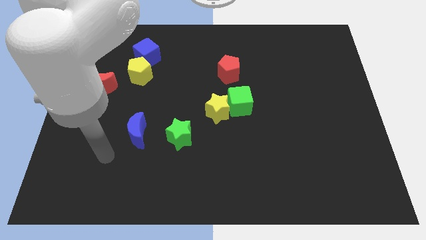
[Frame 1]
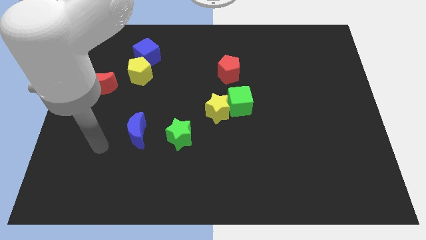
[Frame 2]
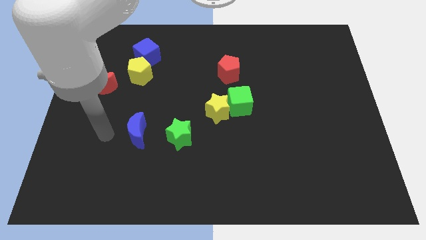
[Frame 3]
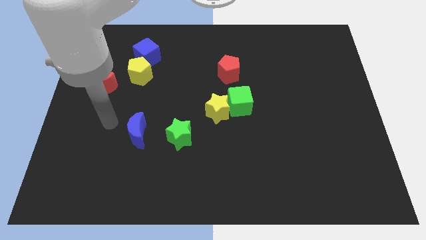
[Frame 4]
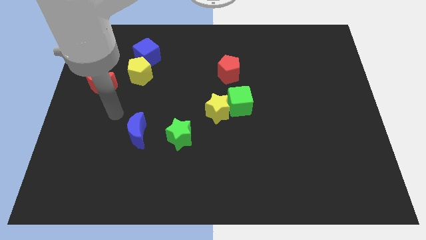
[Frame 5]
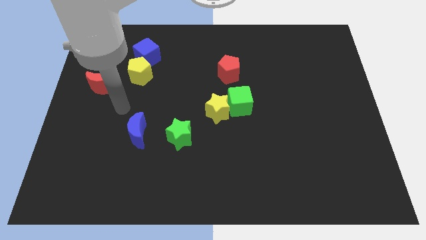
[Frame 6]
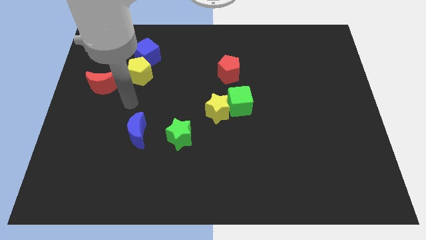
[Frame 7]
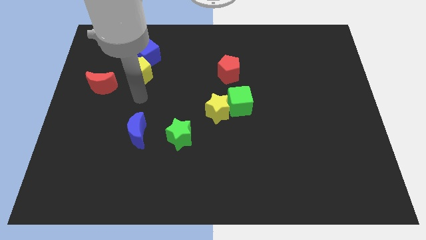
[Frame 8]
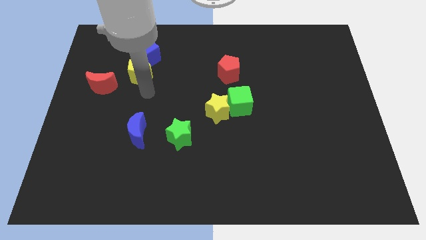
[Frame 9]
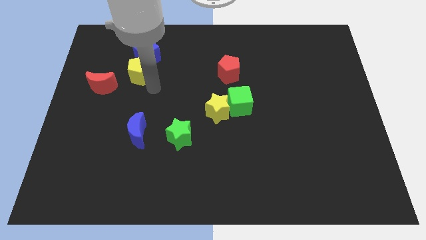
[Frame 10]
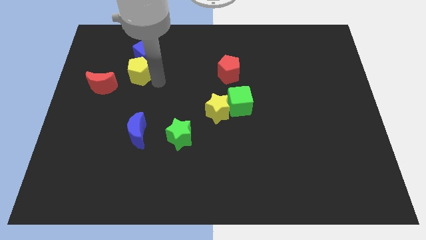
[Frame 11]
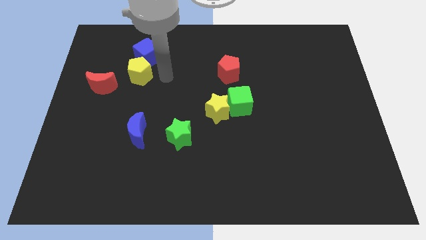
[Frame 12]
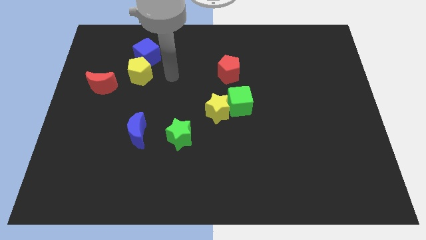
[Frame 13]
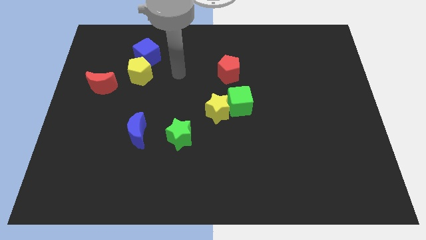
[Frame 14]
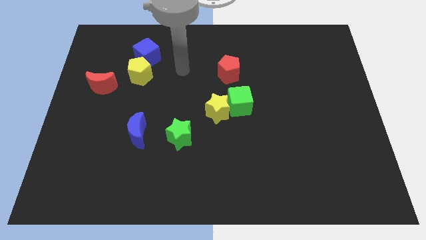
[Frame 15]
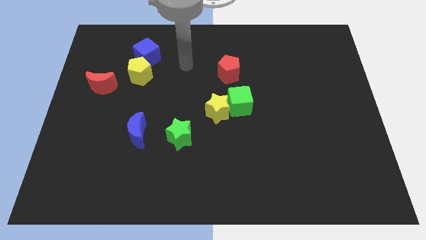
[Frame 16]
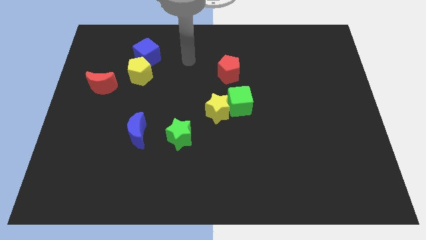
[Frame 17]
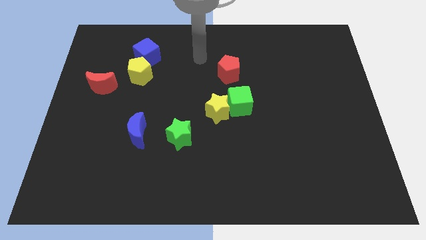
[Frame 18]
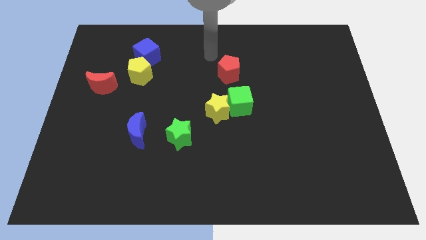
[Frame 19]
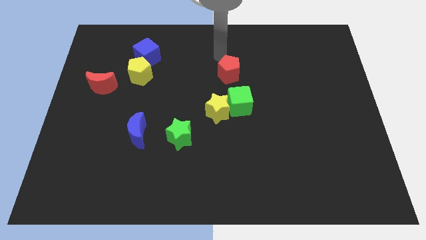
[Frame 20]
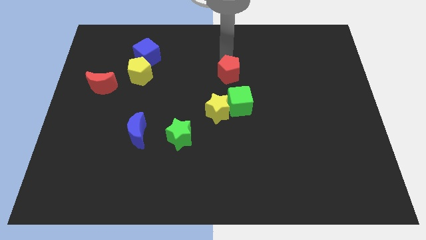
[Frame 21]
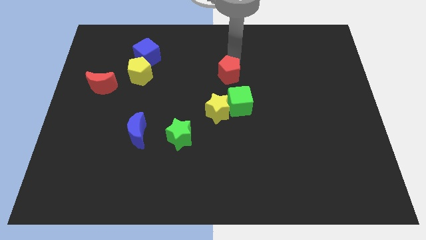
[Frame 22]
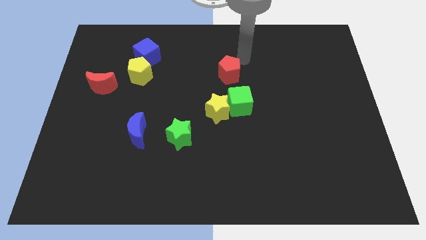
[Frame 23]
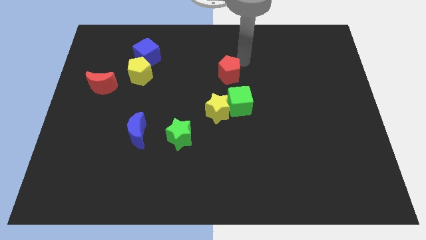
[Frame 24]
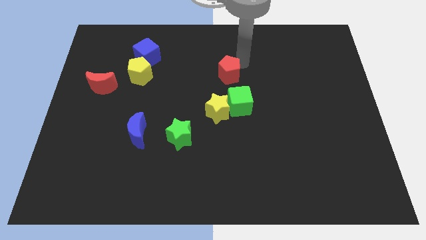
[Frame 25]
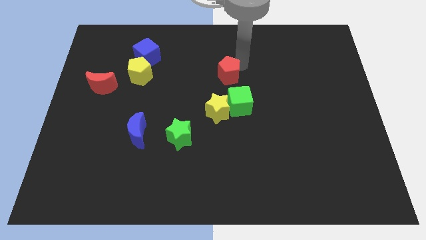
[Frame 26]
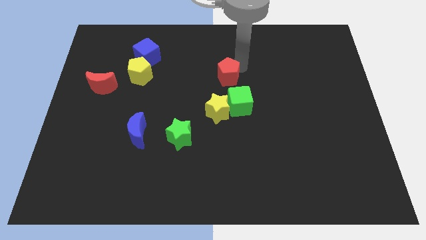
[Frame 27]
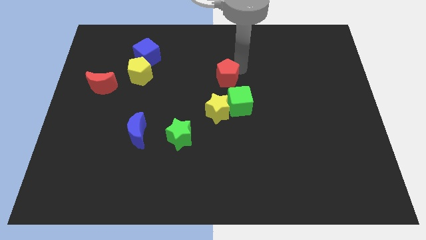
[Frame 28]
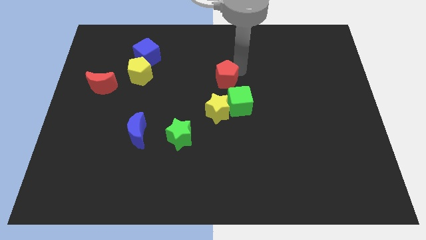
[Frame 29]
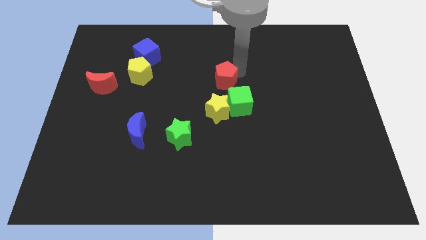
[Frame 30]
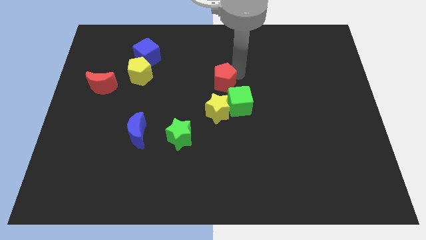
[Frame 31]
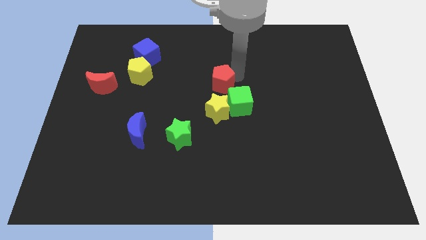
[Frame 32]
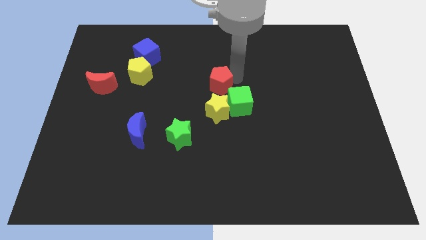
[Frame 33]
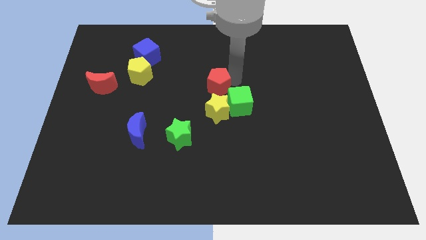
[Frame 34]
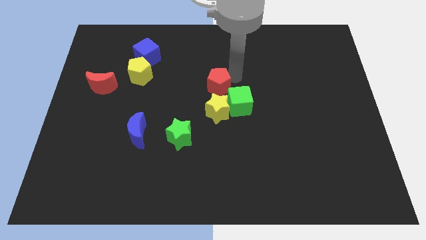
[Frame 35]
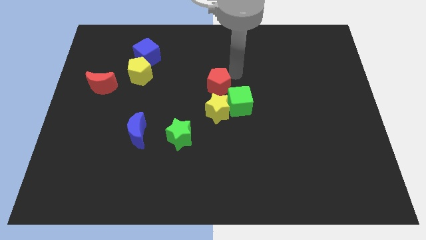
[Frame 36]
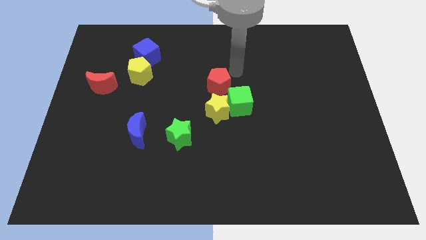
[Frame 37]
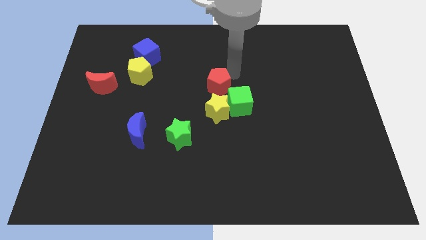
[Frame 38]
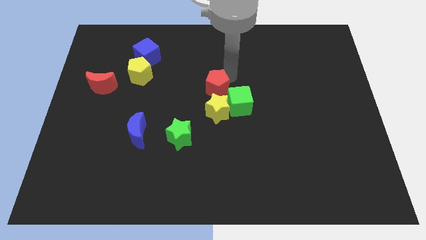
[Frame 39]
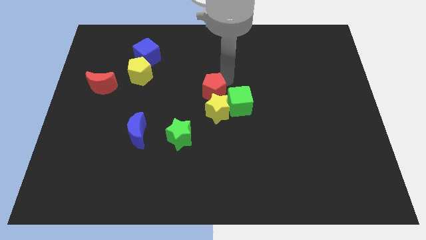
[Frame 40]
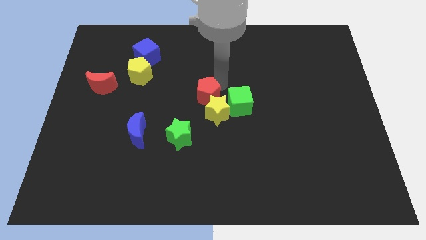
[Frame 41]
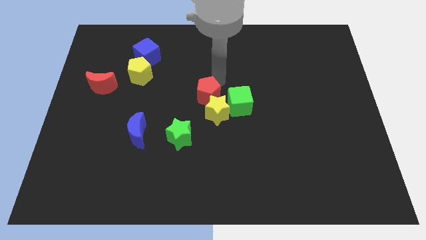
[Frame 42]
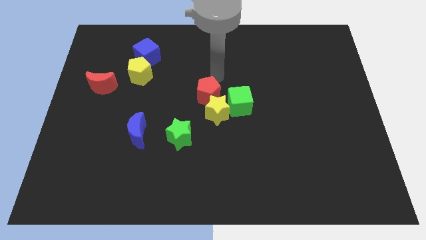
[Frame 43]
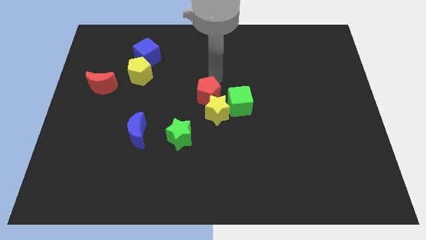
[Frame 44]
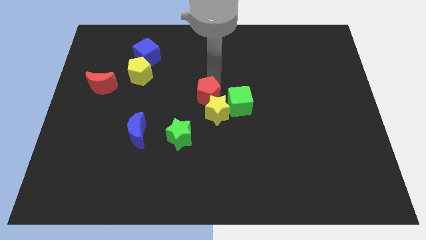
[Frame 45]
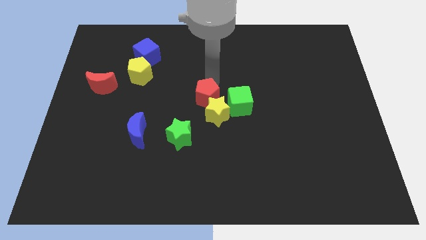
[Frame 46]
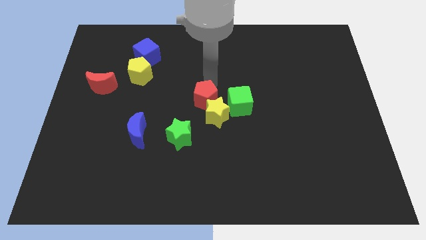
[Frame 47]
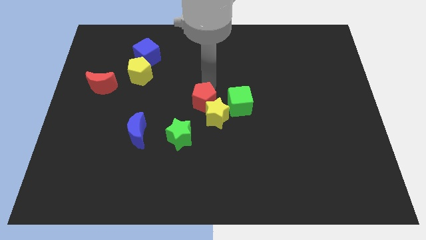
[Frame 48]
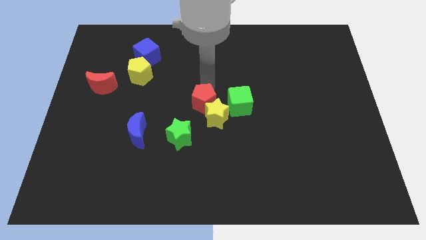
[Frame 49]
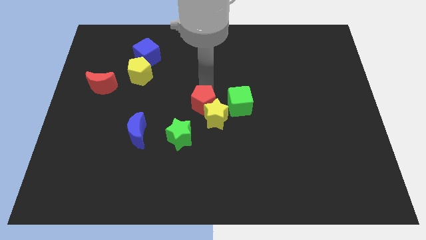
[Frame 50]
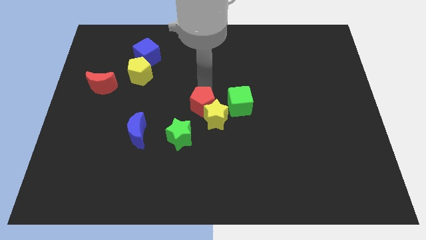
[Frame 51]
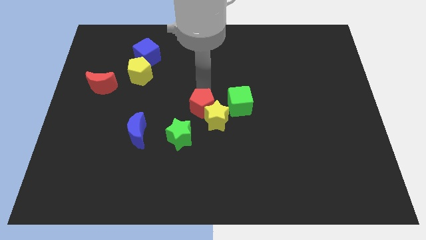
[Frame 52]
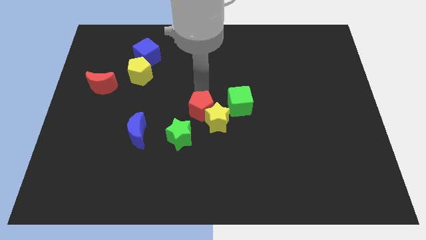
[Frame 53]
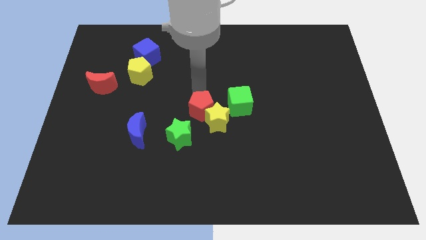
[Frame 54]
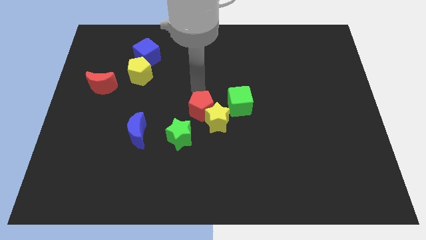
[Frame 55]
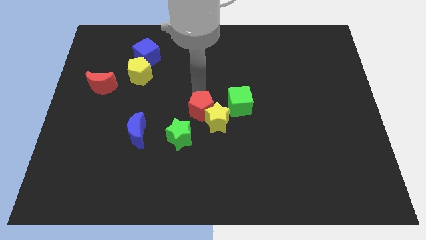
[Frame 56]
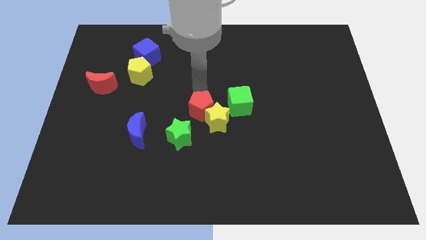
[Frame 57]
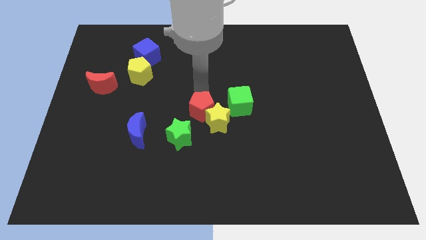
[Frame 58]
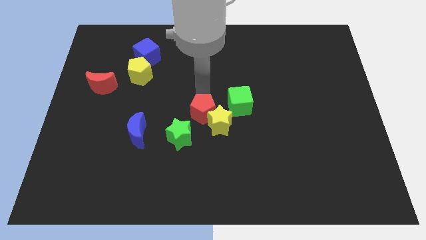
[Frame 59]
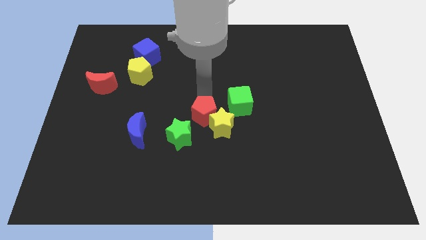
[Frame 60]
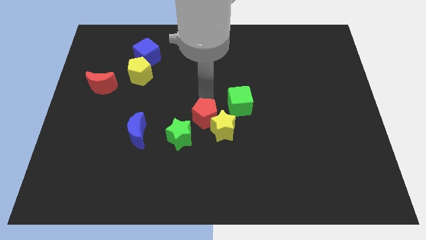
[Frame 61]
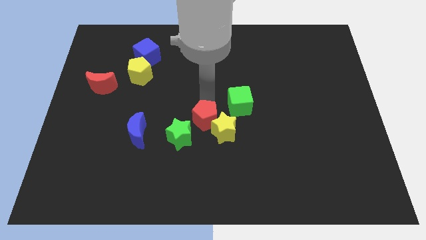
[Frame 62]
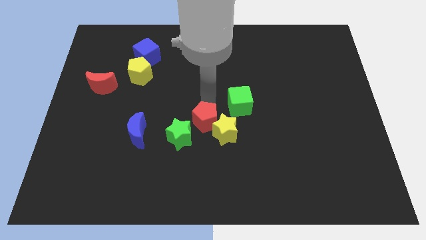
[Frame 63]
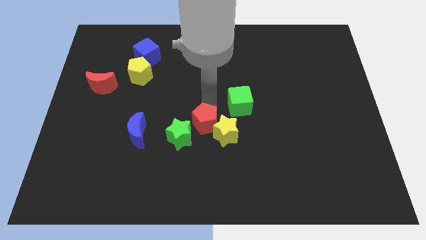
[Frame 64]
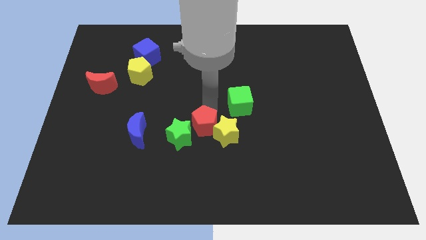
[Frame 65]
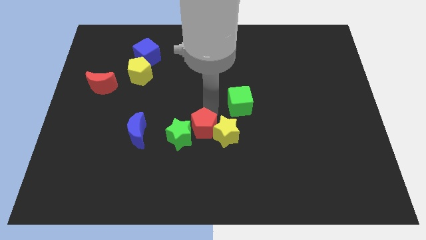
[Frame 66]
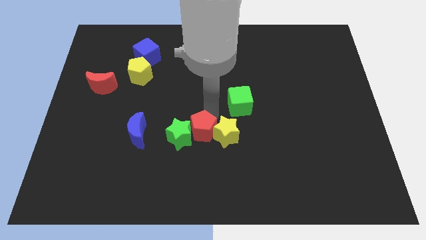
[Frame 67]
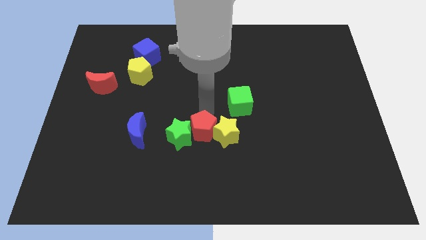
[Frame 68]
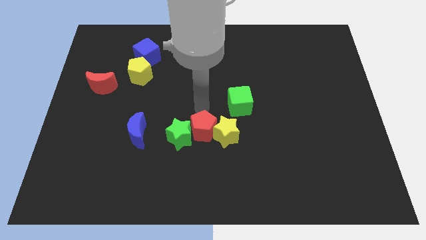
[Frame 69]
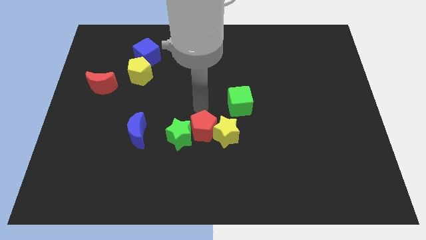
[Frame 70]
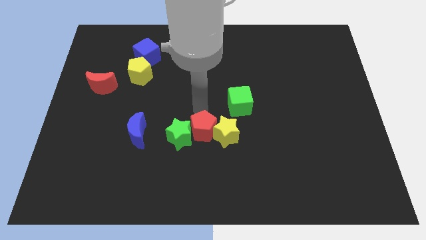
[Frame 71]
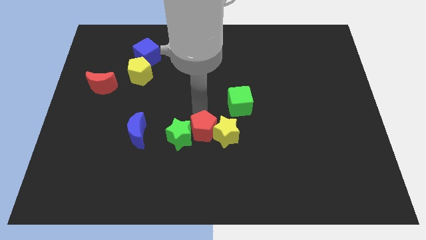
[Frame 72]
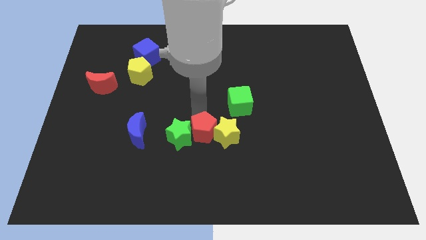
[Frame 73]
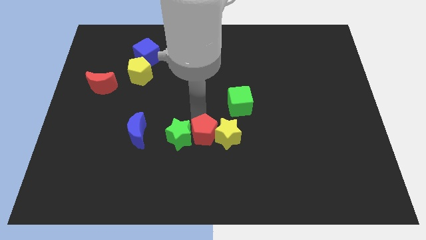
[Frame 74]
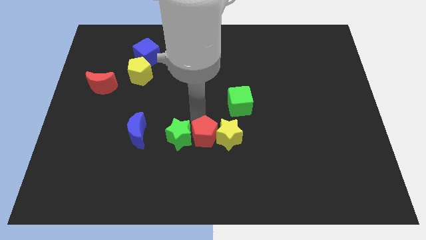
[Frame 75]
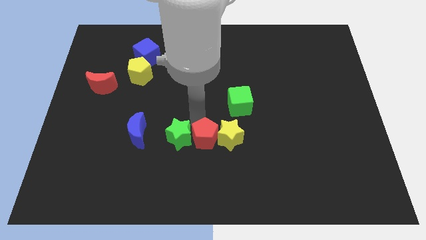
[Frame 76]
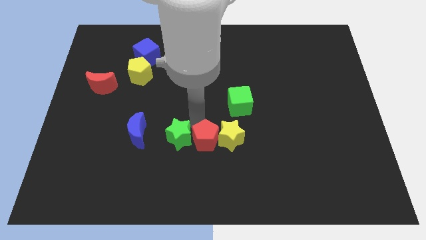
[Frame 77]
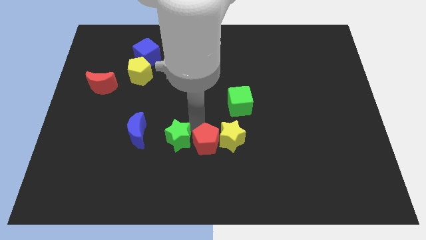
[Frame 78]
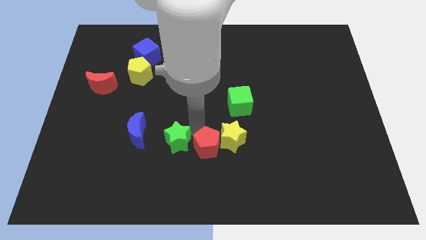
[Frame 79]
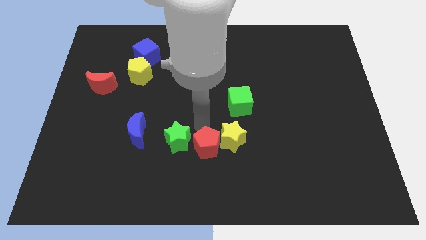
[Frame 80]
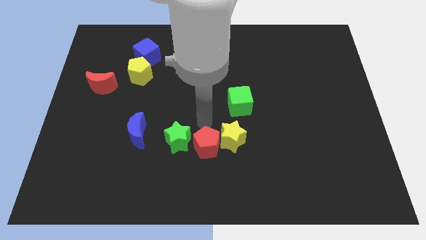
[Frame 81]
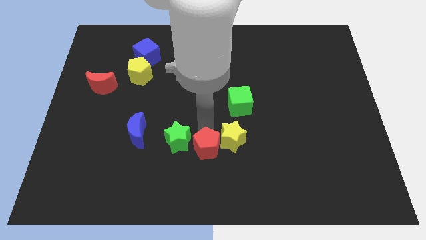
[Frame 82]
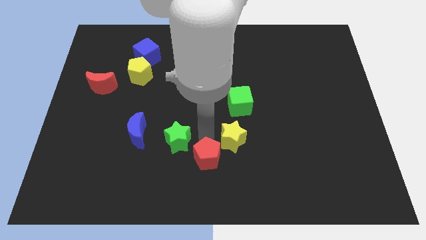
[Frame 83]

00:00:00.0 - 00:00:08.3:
put the red pentagon to the bottom side
